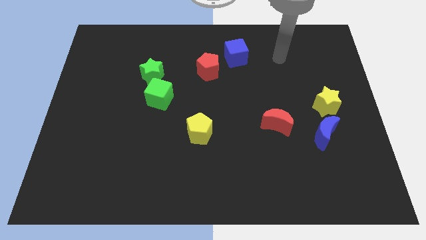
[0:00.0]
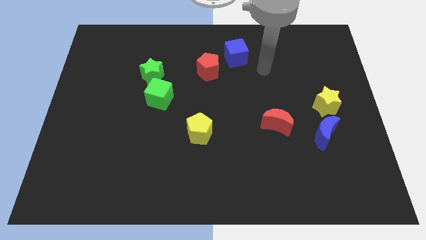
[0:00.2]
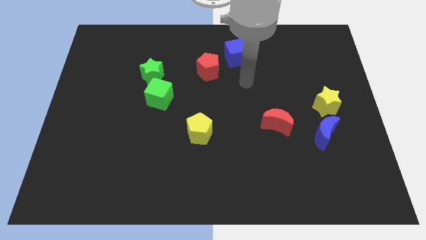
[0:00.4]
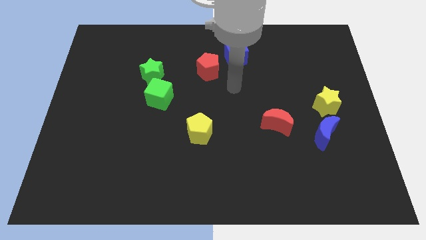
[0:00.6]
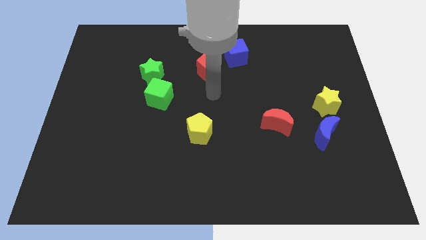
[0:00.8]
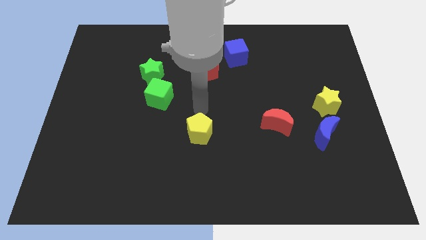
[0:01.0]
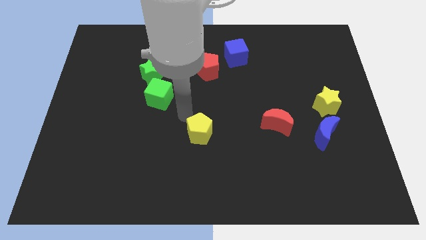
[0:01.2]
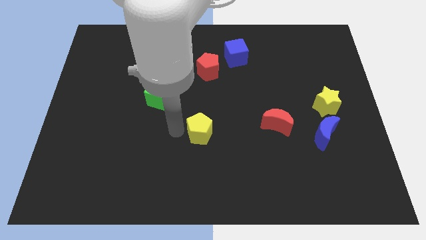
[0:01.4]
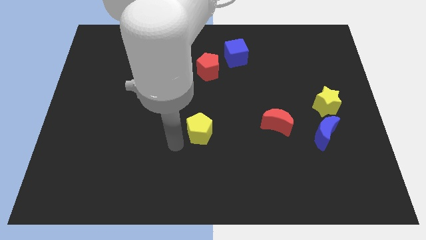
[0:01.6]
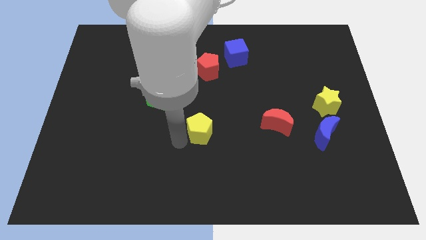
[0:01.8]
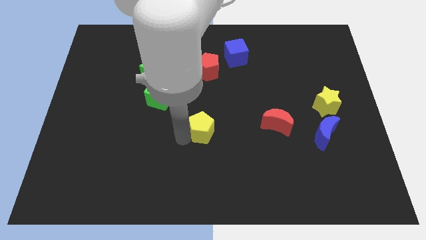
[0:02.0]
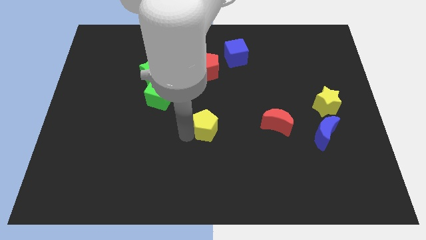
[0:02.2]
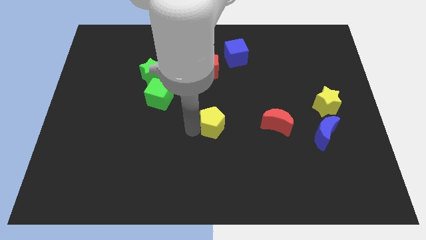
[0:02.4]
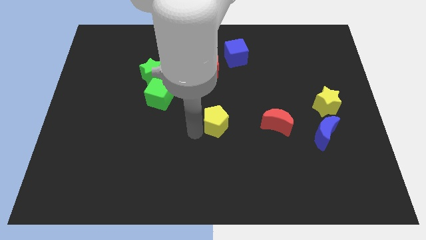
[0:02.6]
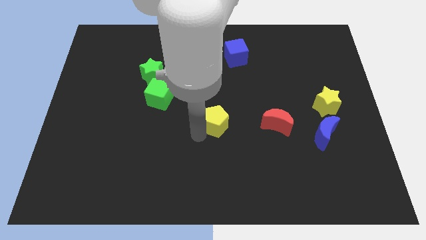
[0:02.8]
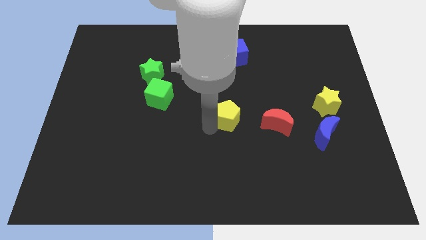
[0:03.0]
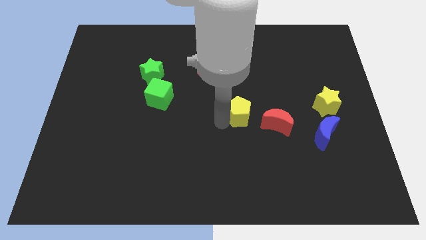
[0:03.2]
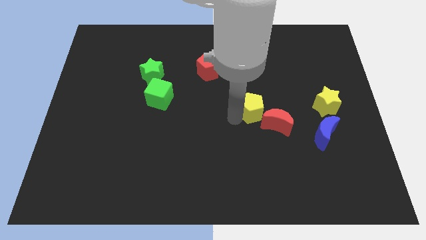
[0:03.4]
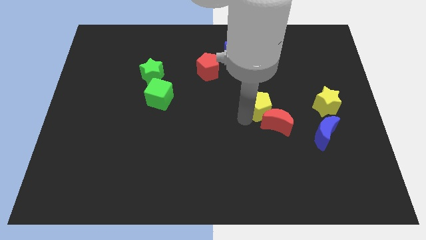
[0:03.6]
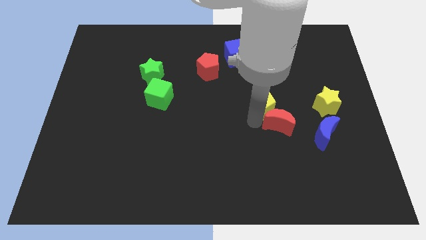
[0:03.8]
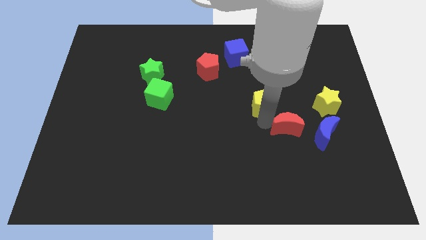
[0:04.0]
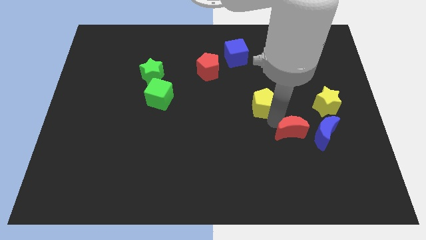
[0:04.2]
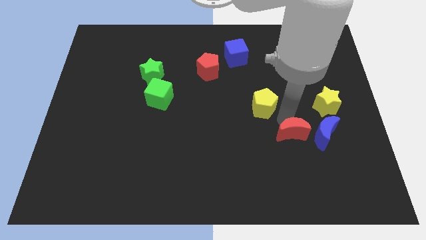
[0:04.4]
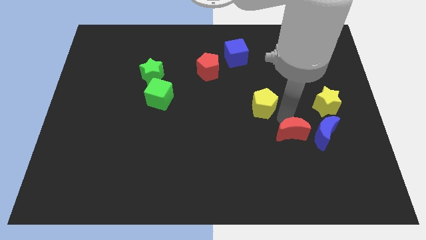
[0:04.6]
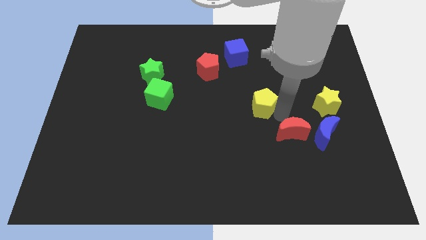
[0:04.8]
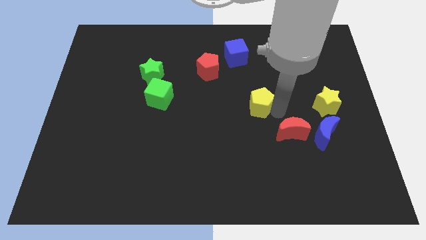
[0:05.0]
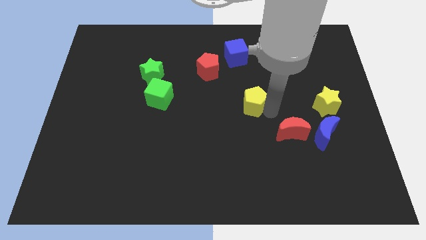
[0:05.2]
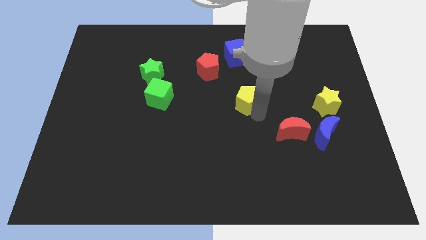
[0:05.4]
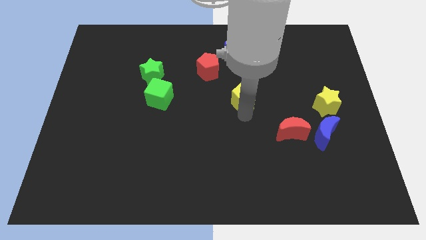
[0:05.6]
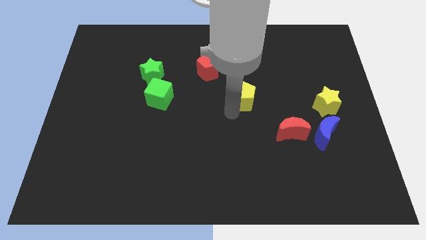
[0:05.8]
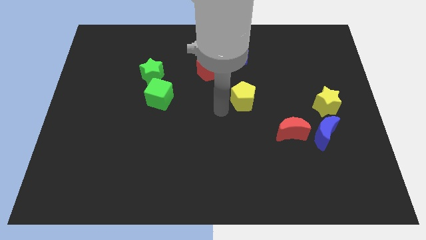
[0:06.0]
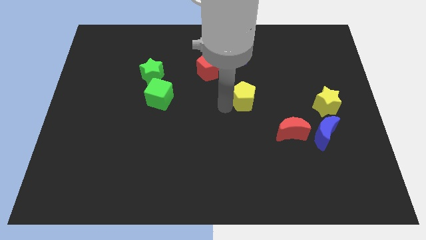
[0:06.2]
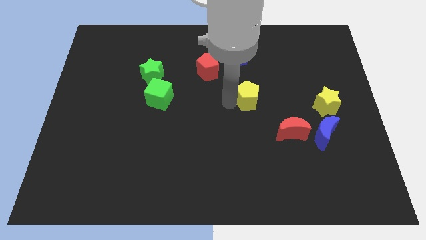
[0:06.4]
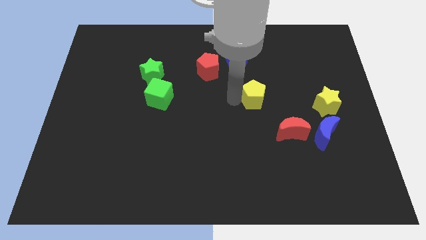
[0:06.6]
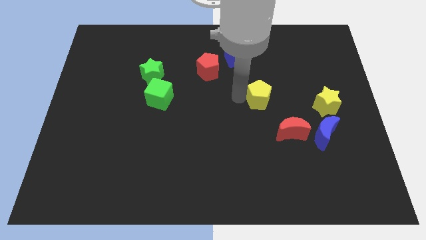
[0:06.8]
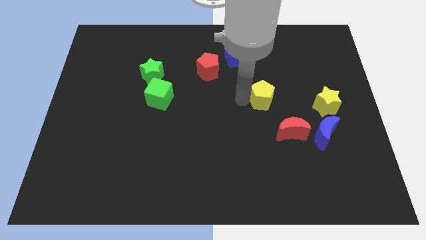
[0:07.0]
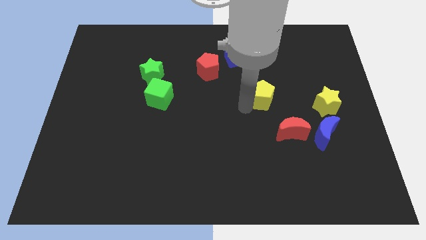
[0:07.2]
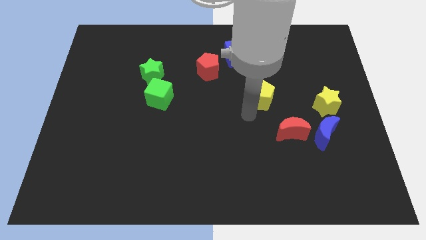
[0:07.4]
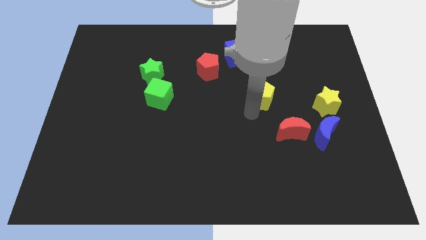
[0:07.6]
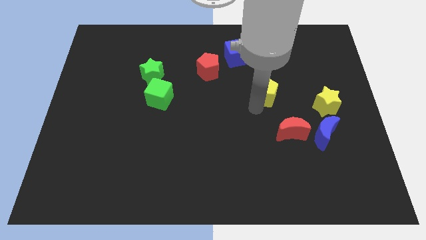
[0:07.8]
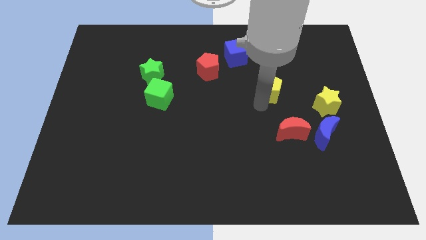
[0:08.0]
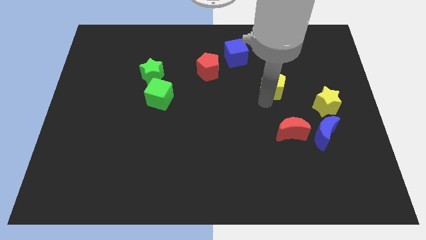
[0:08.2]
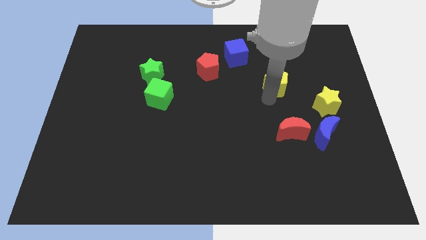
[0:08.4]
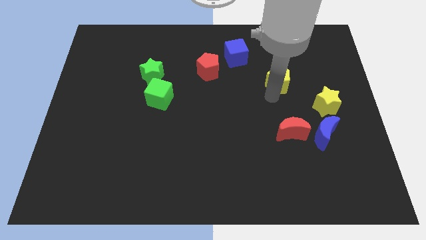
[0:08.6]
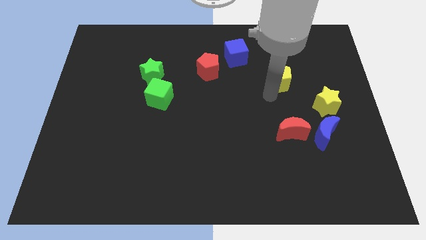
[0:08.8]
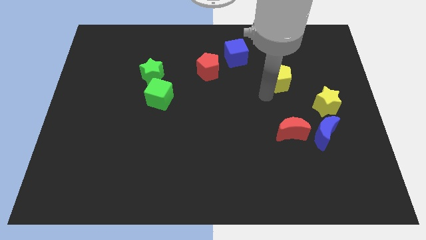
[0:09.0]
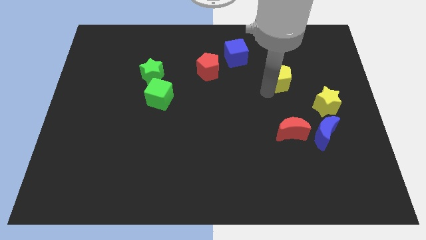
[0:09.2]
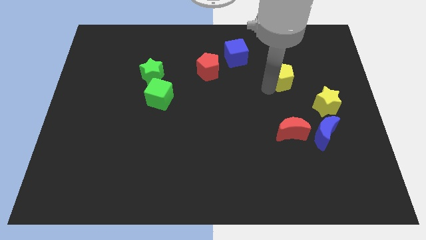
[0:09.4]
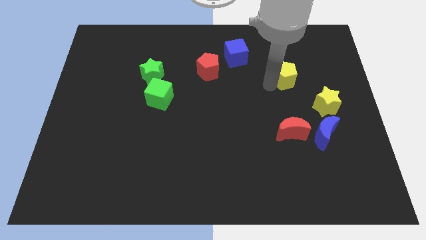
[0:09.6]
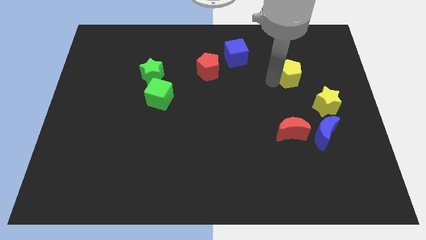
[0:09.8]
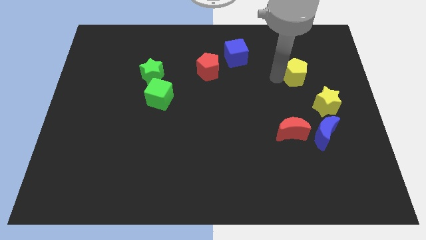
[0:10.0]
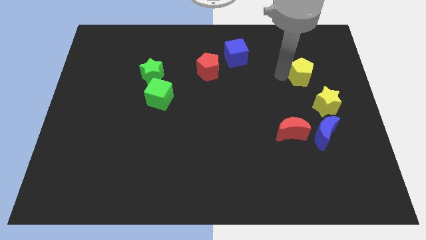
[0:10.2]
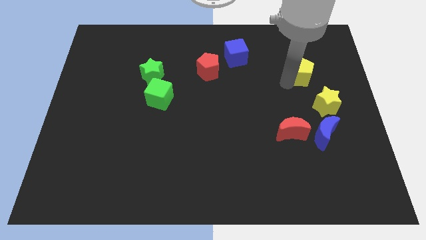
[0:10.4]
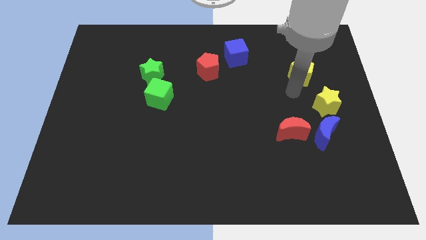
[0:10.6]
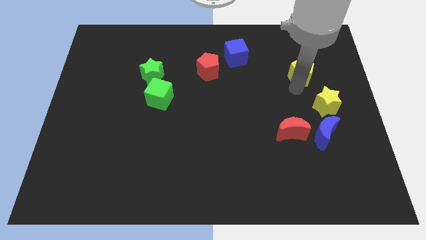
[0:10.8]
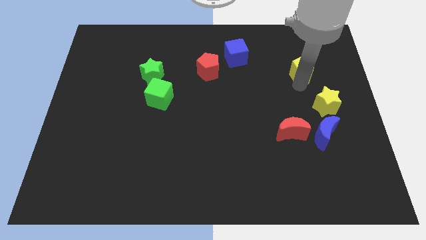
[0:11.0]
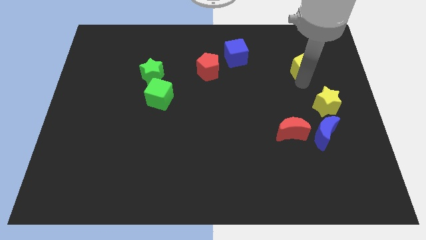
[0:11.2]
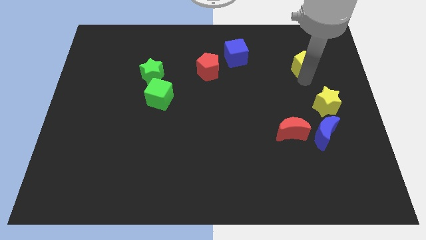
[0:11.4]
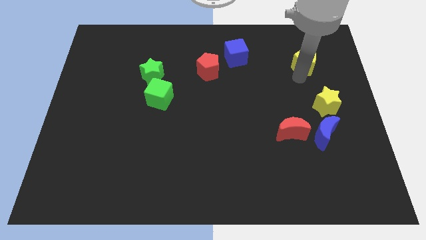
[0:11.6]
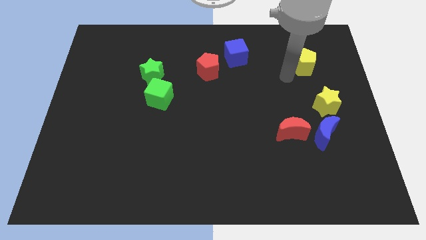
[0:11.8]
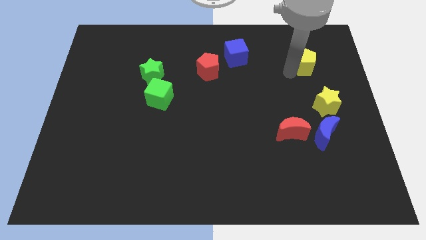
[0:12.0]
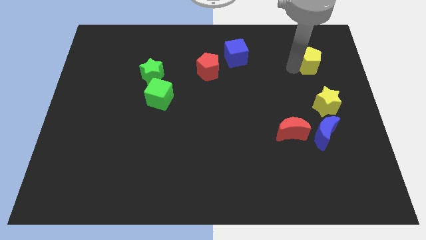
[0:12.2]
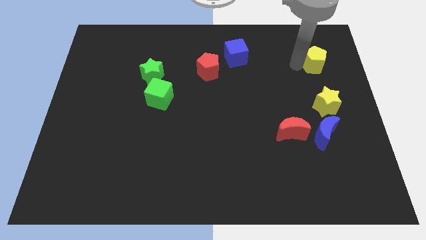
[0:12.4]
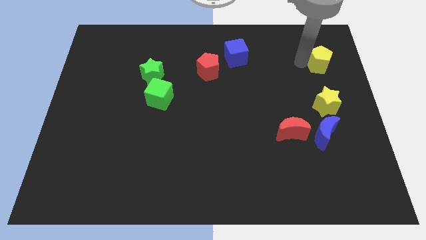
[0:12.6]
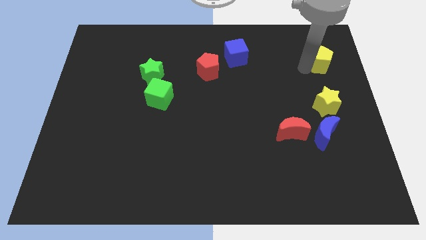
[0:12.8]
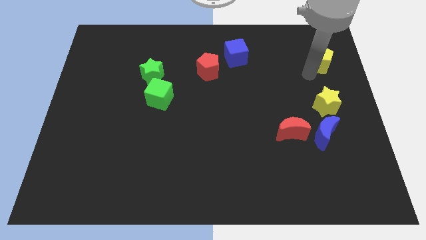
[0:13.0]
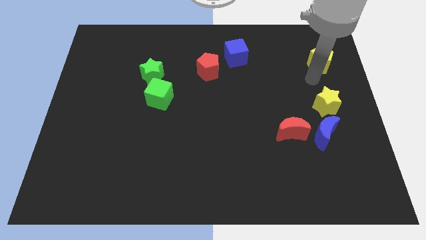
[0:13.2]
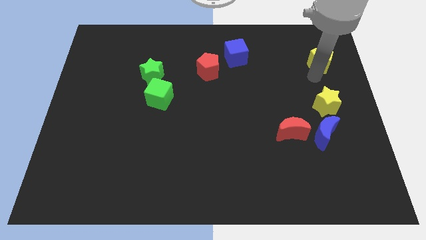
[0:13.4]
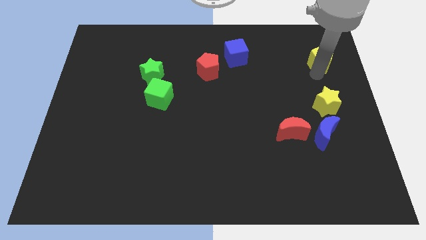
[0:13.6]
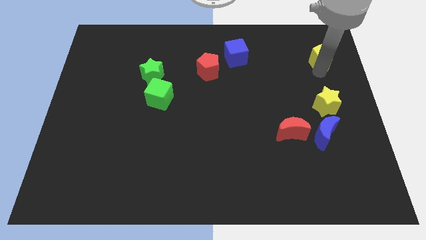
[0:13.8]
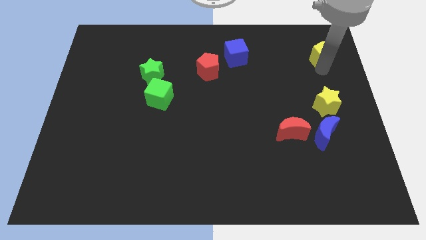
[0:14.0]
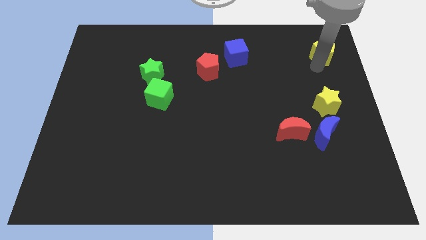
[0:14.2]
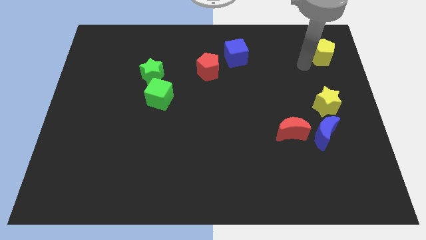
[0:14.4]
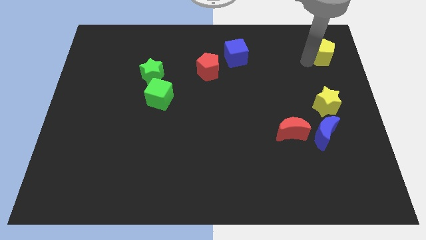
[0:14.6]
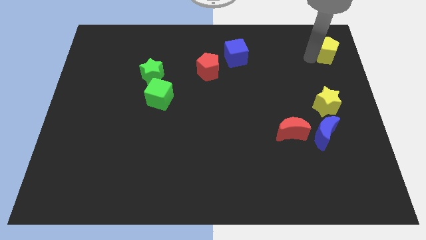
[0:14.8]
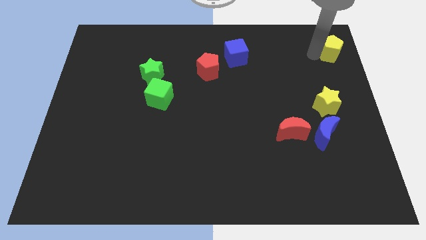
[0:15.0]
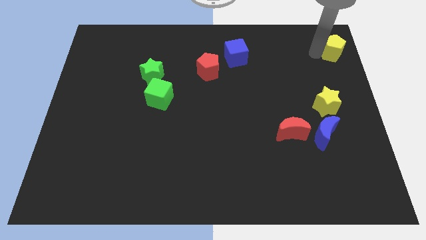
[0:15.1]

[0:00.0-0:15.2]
move the yellow pentagon to the top right corner
